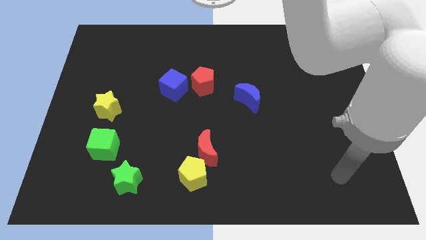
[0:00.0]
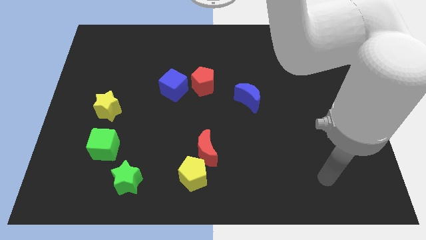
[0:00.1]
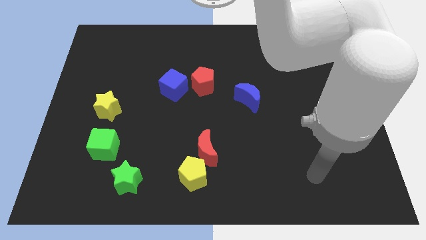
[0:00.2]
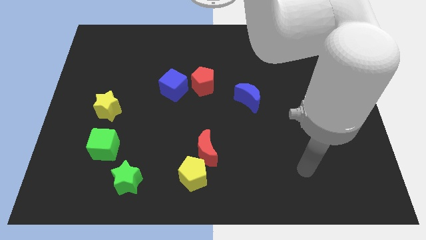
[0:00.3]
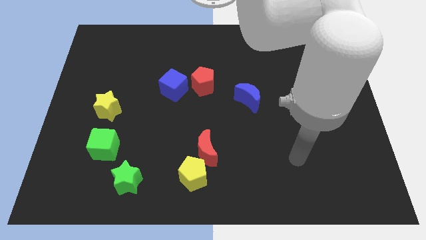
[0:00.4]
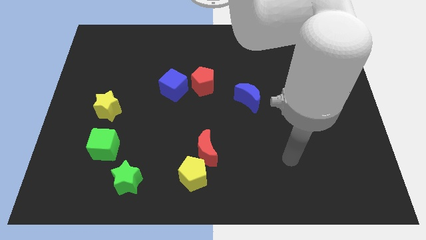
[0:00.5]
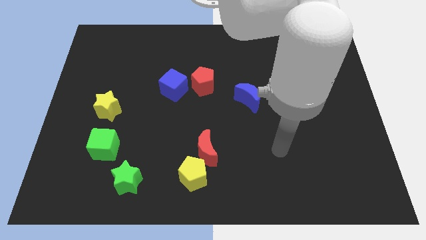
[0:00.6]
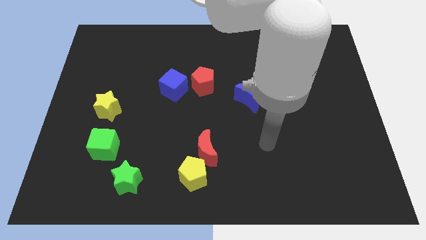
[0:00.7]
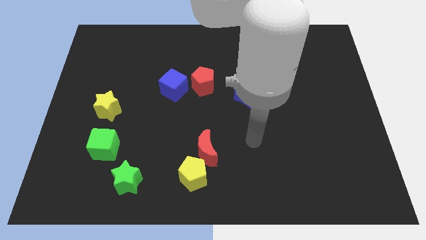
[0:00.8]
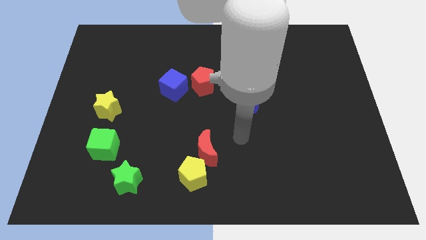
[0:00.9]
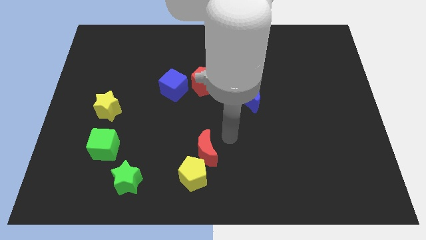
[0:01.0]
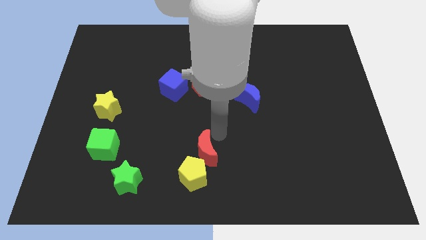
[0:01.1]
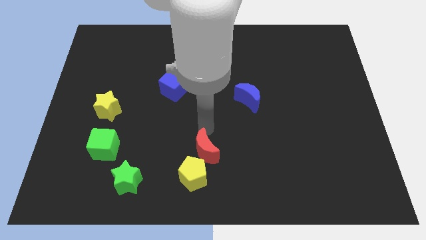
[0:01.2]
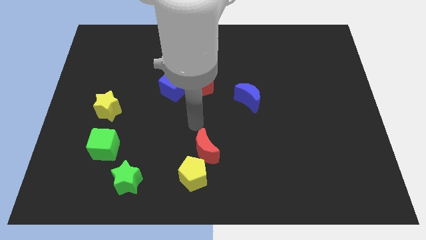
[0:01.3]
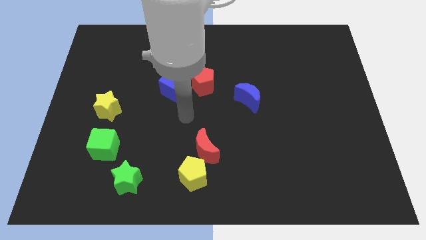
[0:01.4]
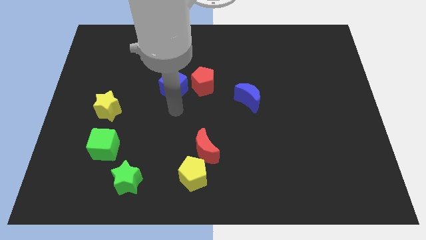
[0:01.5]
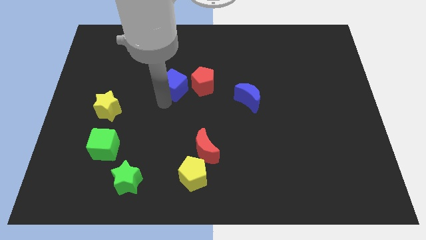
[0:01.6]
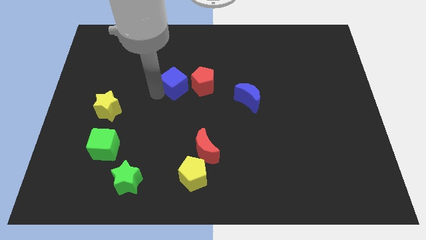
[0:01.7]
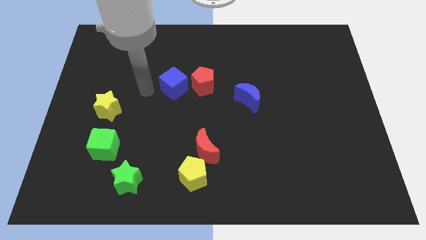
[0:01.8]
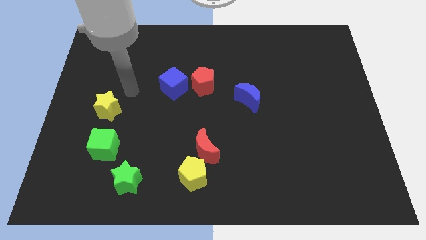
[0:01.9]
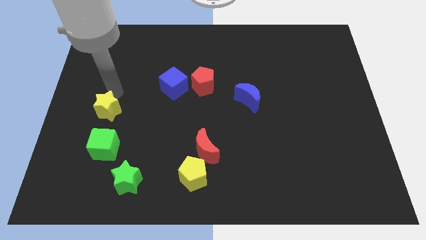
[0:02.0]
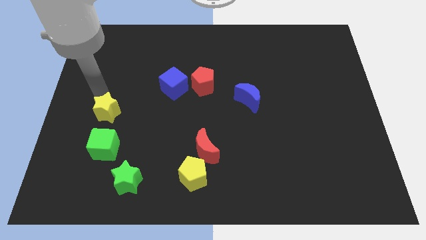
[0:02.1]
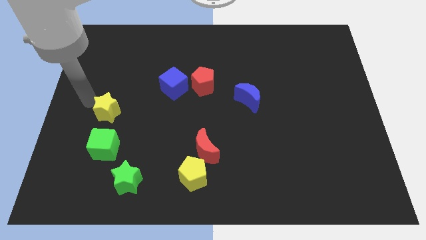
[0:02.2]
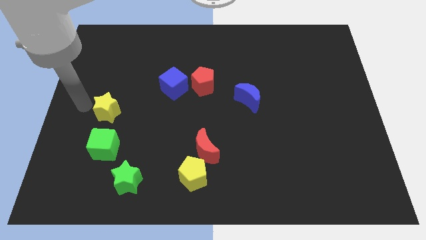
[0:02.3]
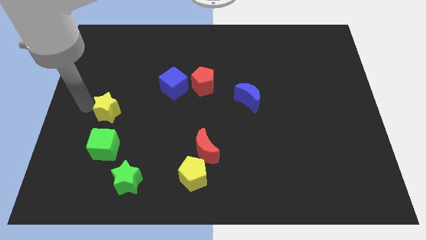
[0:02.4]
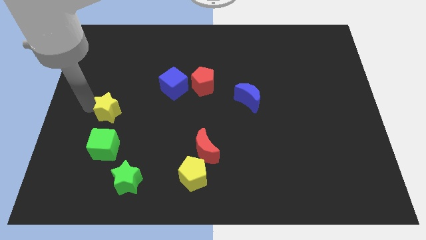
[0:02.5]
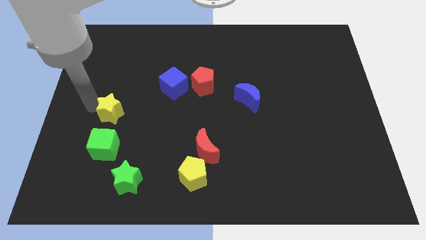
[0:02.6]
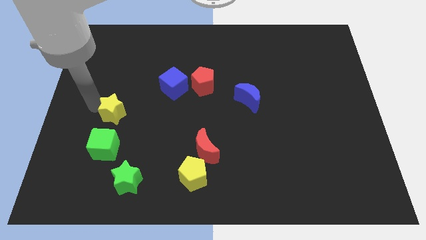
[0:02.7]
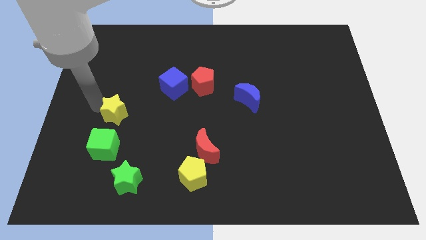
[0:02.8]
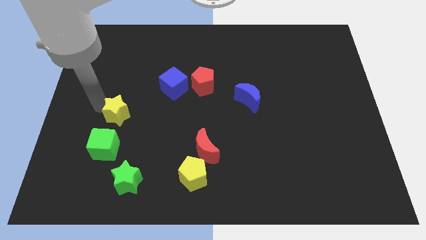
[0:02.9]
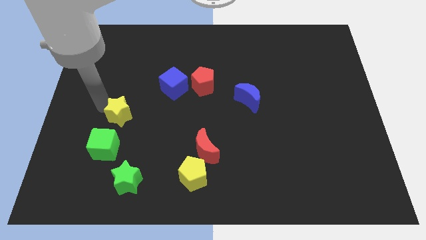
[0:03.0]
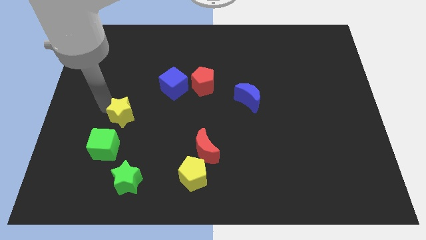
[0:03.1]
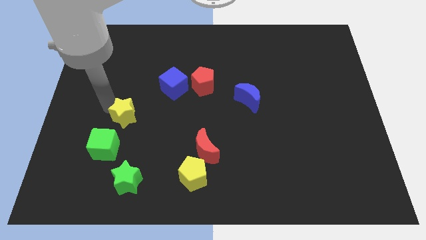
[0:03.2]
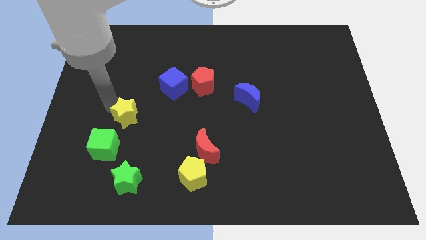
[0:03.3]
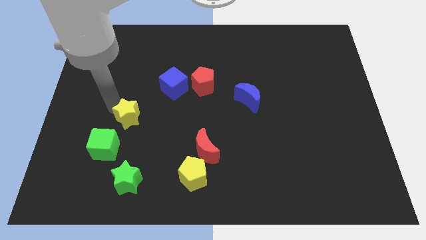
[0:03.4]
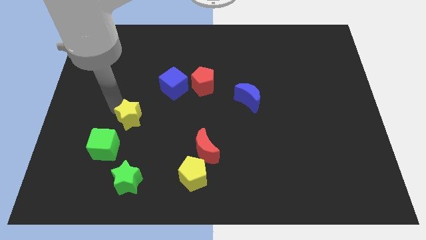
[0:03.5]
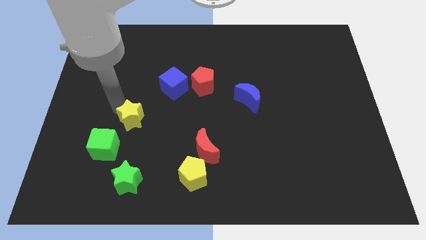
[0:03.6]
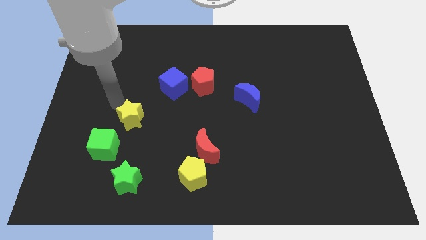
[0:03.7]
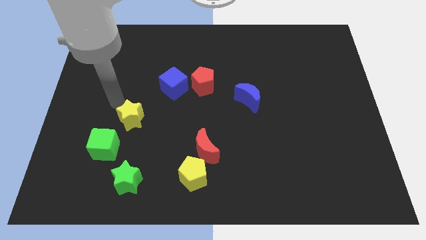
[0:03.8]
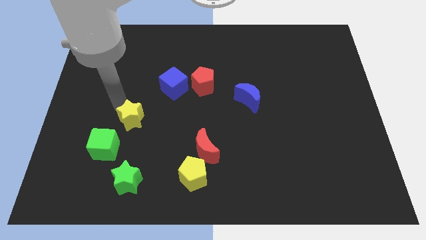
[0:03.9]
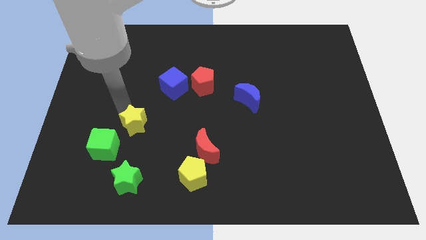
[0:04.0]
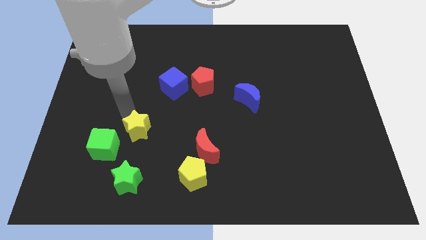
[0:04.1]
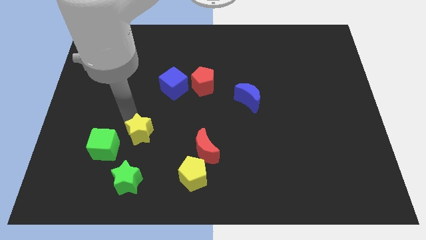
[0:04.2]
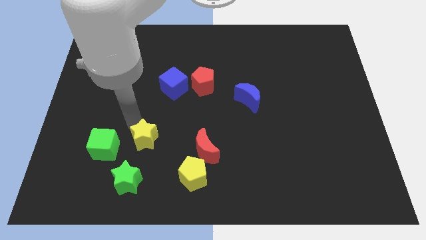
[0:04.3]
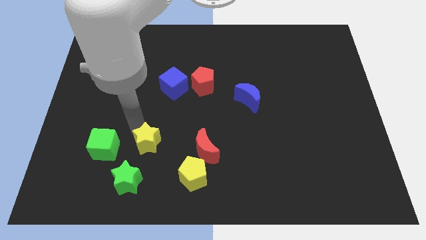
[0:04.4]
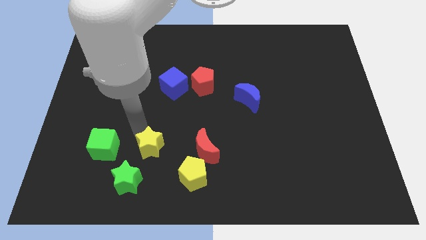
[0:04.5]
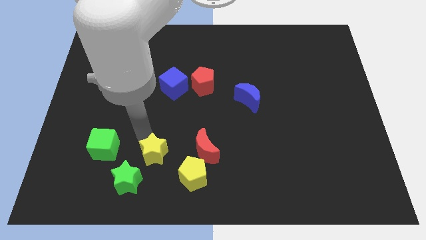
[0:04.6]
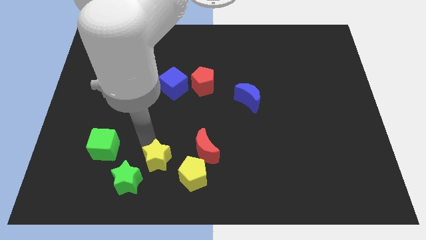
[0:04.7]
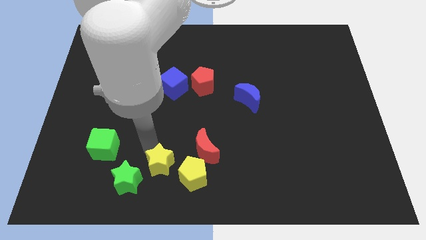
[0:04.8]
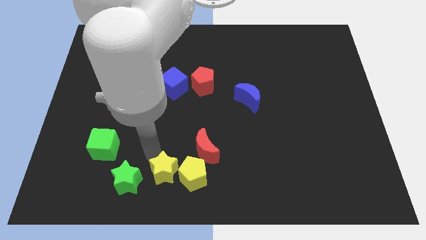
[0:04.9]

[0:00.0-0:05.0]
move the yellow star to the yellow pentagon

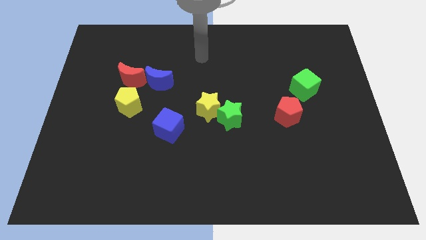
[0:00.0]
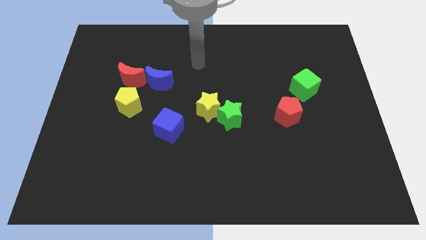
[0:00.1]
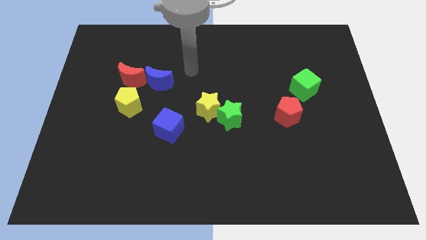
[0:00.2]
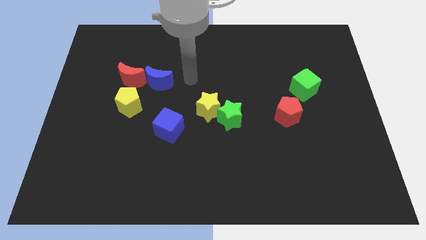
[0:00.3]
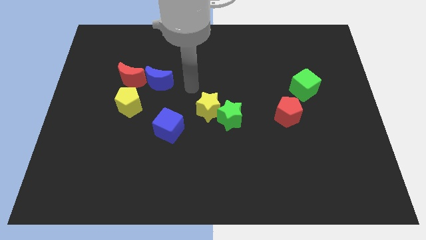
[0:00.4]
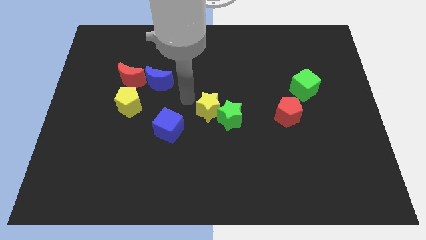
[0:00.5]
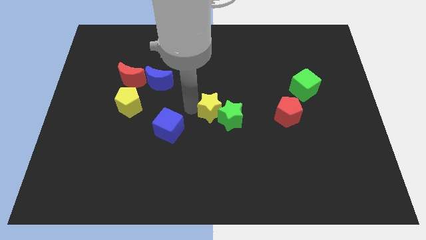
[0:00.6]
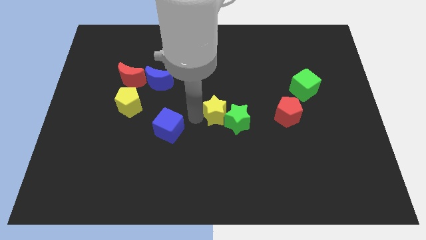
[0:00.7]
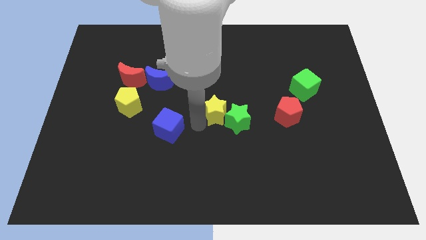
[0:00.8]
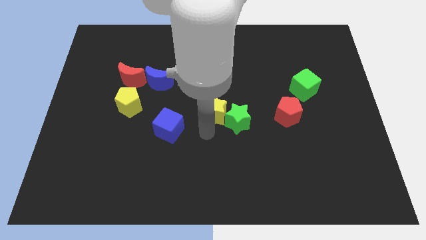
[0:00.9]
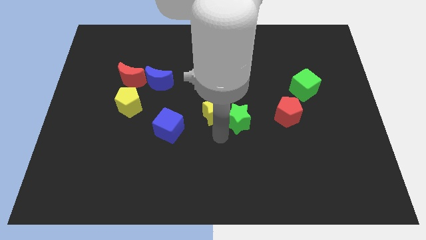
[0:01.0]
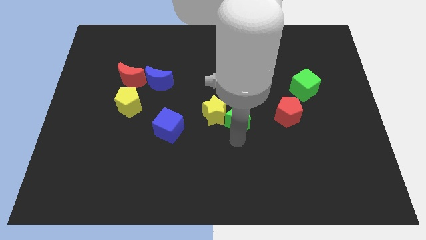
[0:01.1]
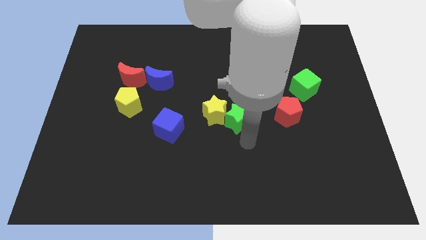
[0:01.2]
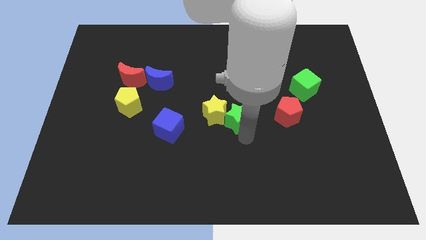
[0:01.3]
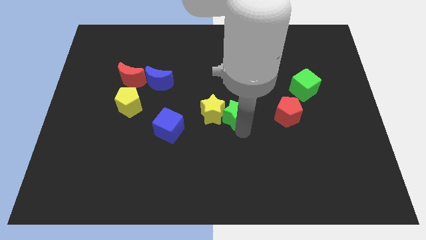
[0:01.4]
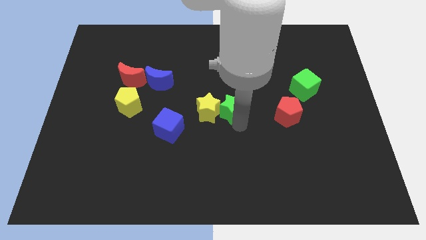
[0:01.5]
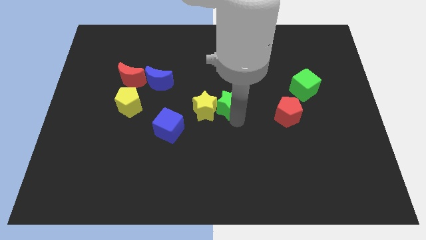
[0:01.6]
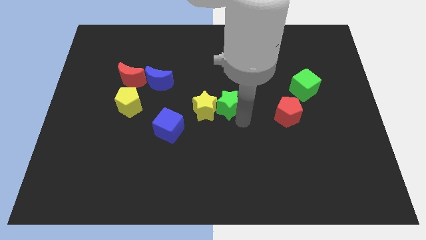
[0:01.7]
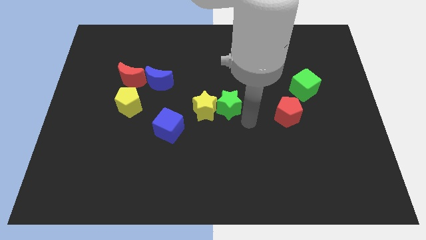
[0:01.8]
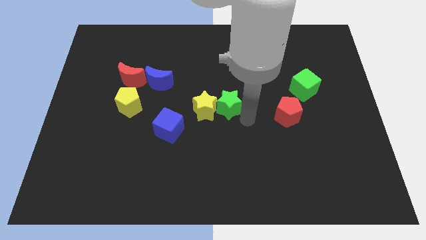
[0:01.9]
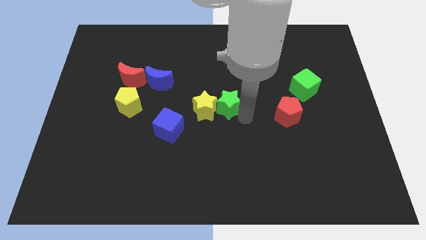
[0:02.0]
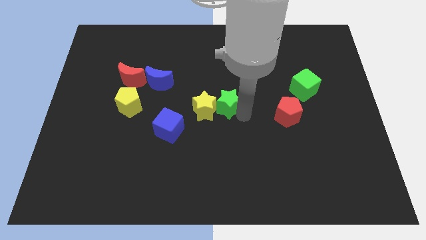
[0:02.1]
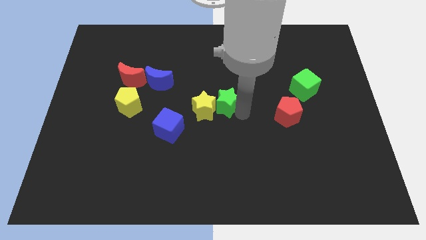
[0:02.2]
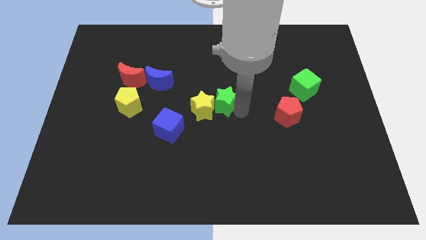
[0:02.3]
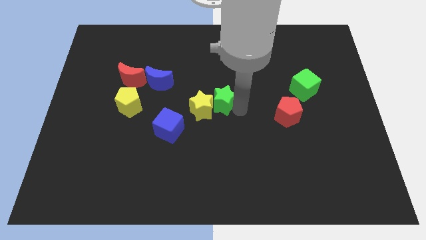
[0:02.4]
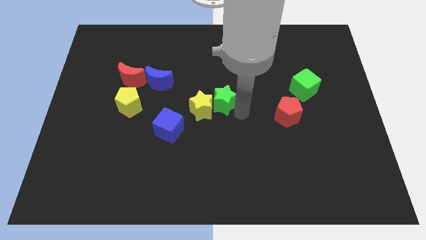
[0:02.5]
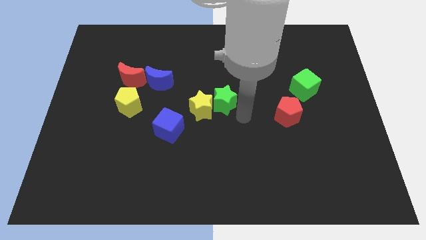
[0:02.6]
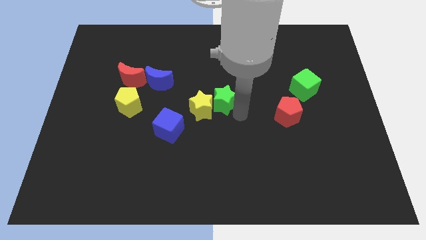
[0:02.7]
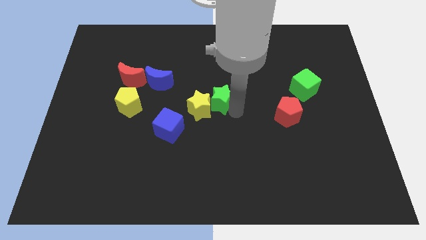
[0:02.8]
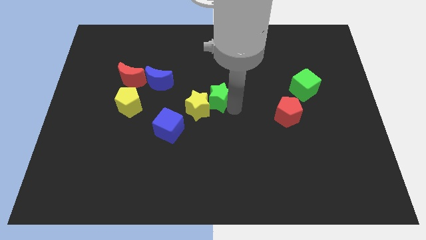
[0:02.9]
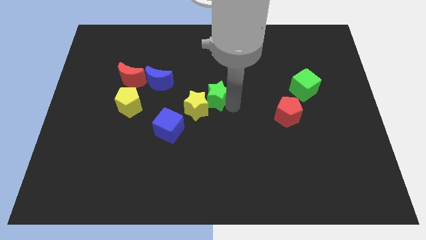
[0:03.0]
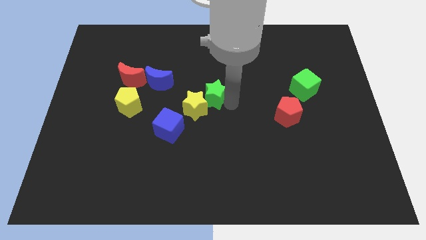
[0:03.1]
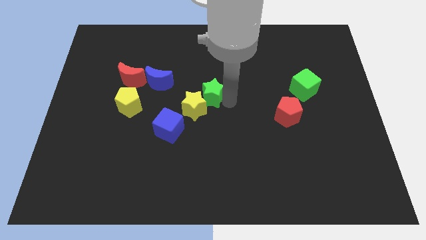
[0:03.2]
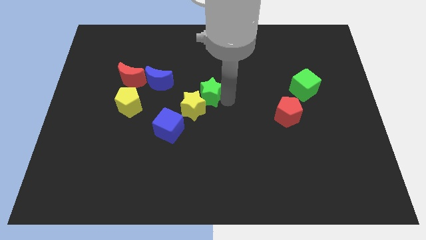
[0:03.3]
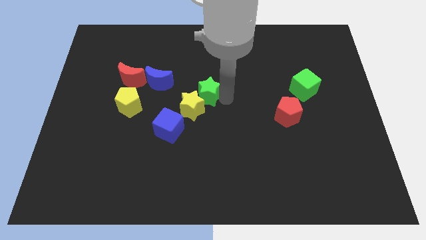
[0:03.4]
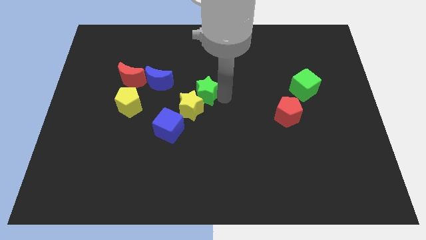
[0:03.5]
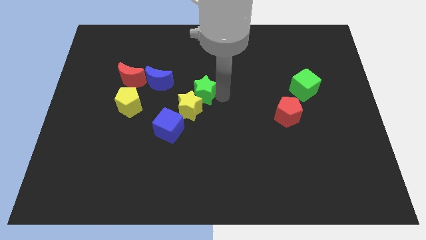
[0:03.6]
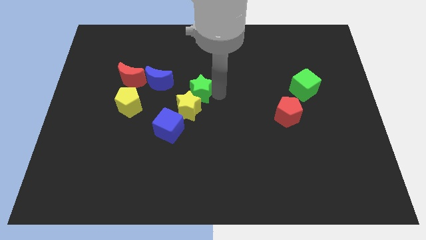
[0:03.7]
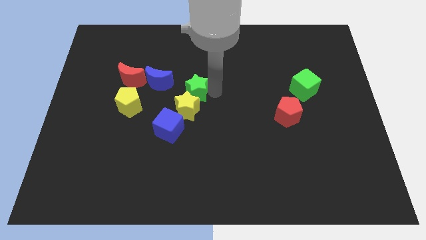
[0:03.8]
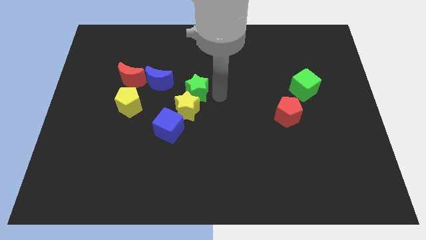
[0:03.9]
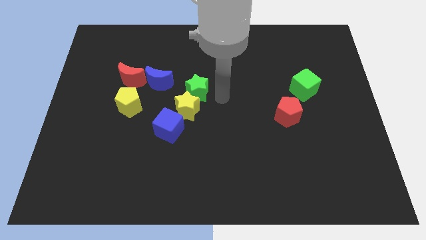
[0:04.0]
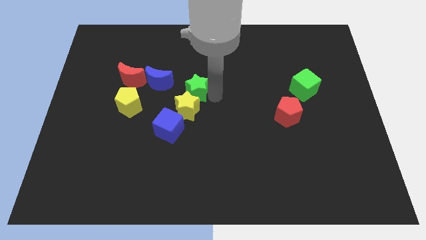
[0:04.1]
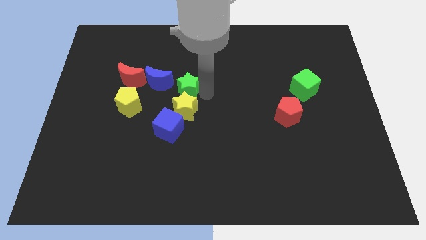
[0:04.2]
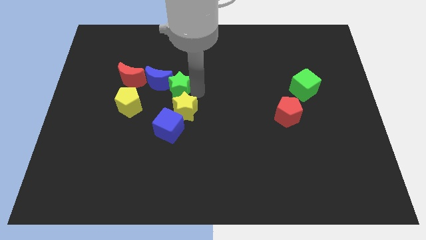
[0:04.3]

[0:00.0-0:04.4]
move the green star next to the blue moon
